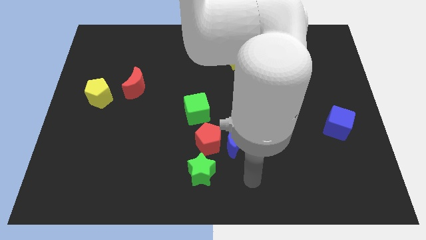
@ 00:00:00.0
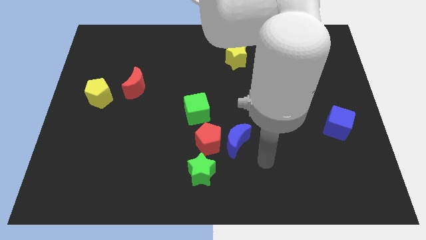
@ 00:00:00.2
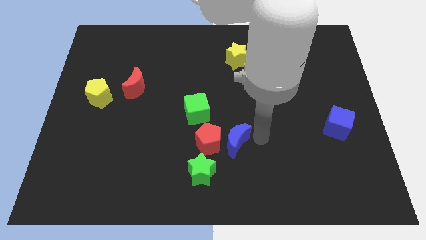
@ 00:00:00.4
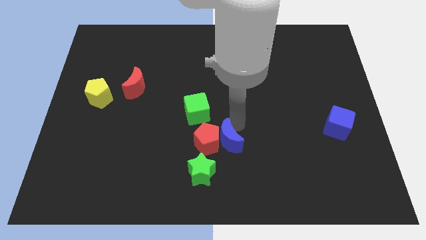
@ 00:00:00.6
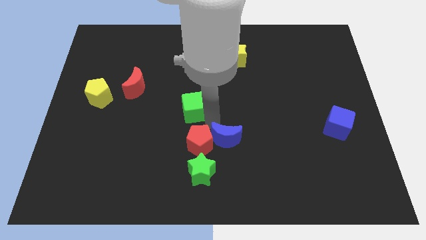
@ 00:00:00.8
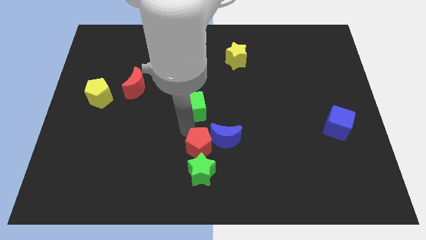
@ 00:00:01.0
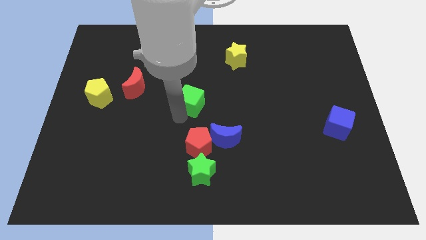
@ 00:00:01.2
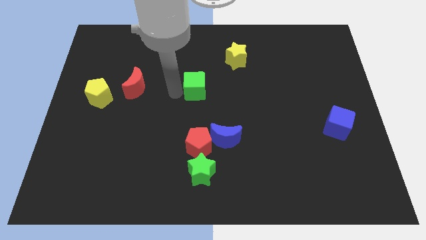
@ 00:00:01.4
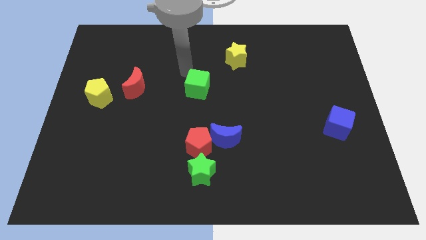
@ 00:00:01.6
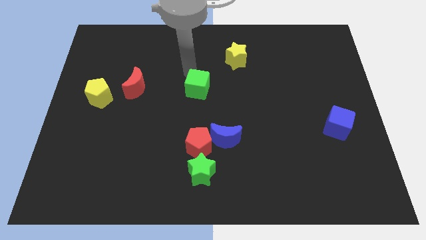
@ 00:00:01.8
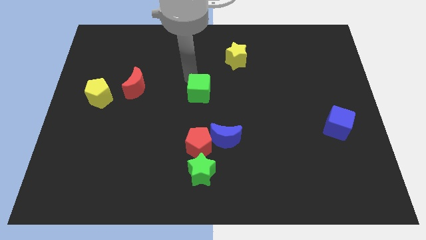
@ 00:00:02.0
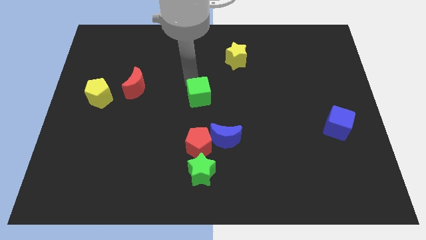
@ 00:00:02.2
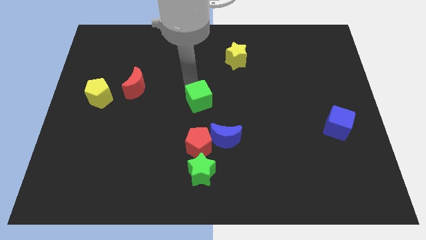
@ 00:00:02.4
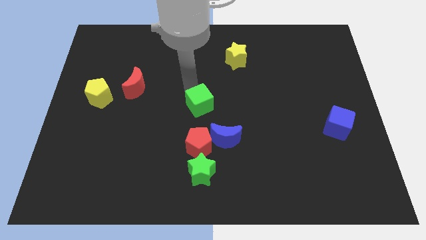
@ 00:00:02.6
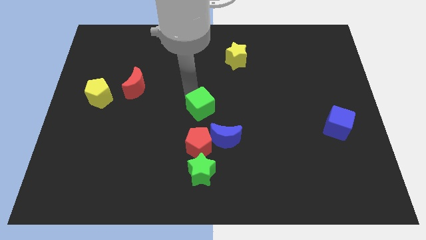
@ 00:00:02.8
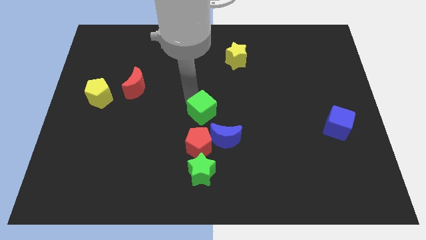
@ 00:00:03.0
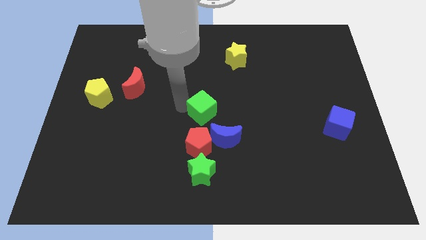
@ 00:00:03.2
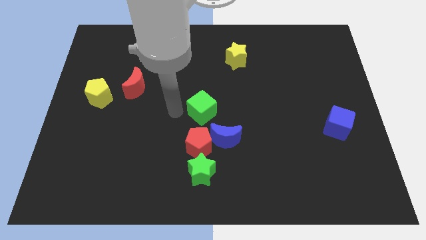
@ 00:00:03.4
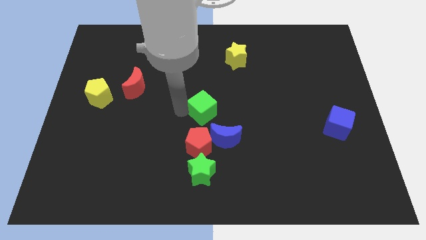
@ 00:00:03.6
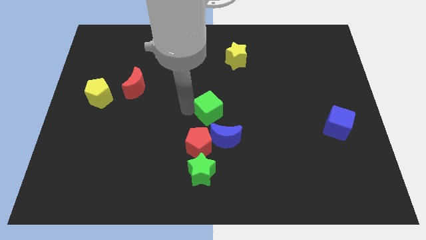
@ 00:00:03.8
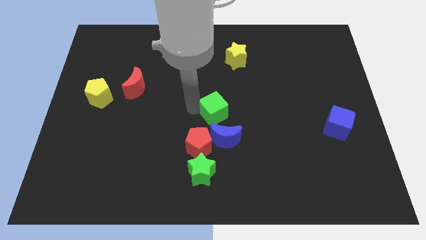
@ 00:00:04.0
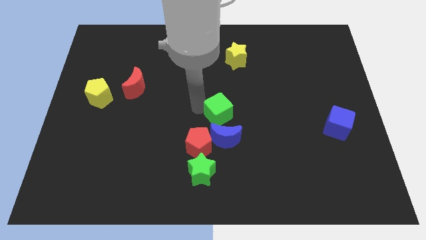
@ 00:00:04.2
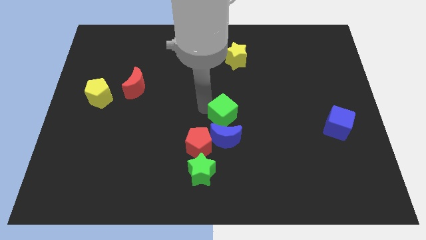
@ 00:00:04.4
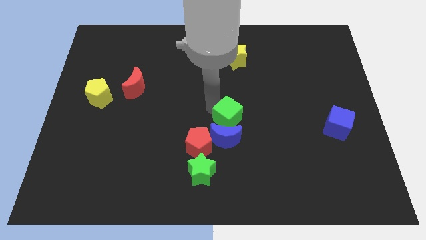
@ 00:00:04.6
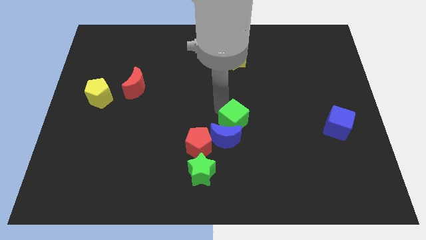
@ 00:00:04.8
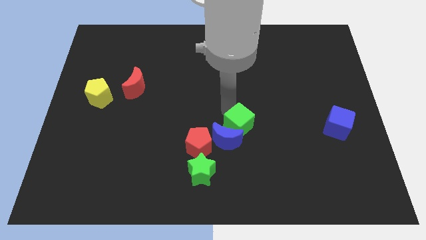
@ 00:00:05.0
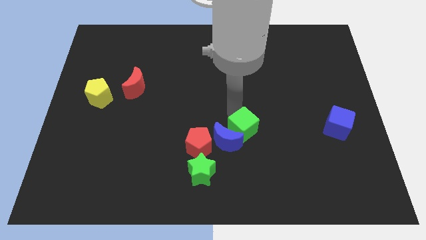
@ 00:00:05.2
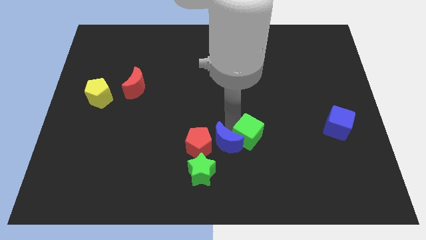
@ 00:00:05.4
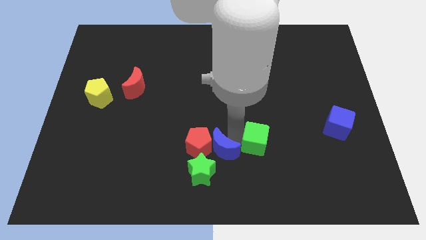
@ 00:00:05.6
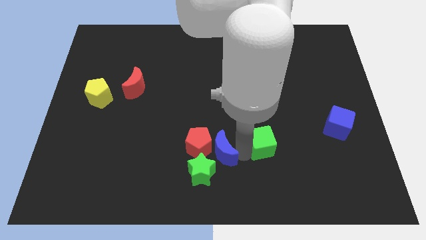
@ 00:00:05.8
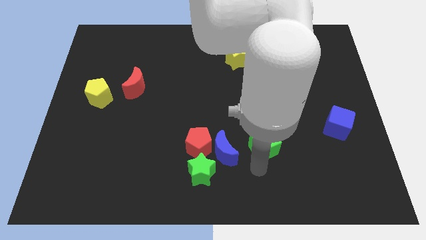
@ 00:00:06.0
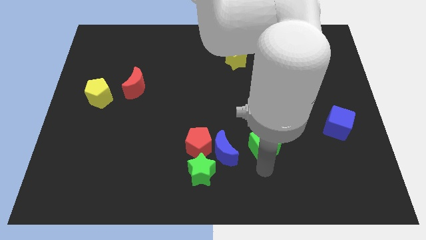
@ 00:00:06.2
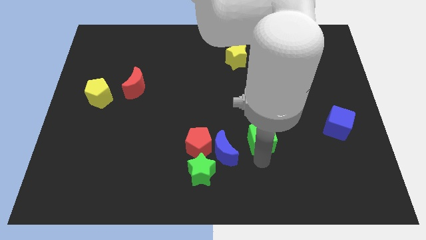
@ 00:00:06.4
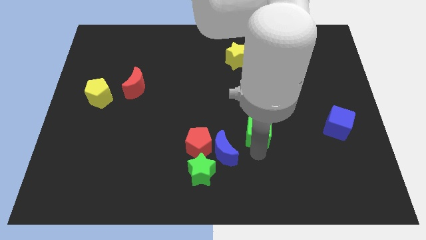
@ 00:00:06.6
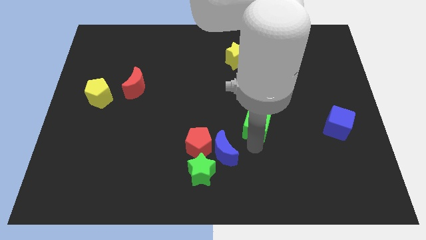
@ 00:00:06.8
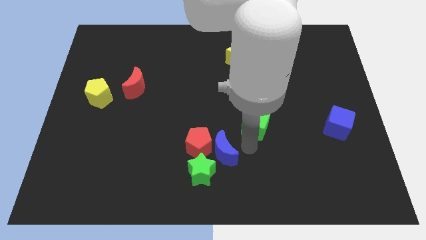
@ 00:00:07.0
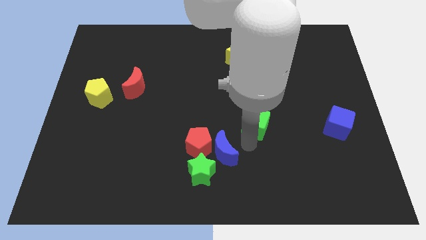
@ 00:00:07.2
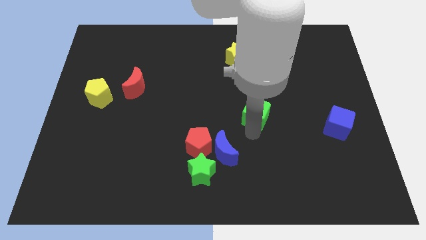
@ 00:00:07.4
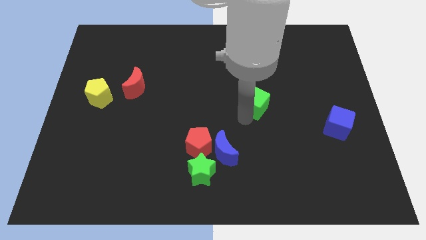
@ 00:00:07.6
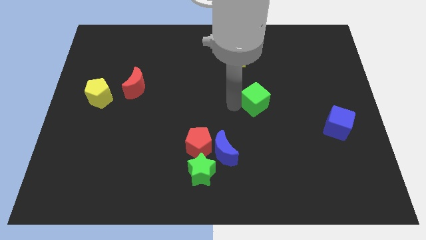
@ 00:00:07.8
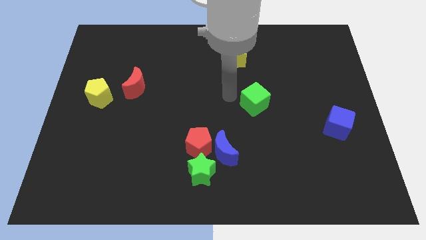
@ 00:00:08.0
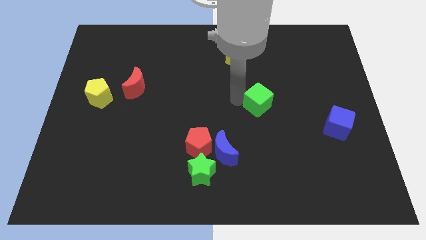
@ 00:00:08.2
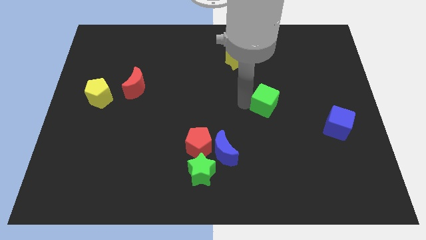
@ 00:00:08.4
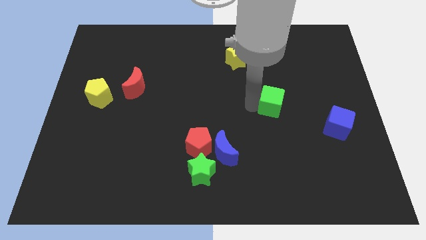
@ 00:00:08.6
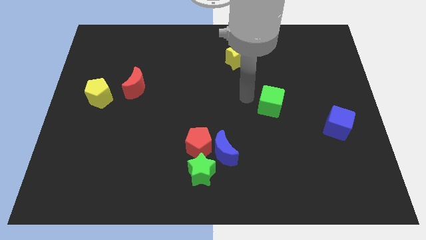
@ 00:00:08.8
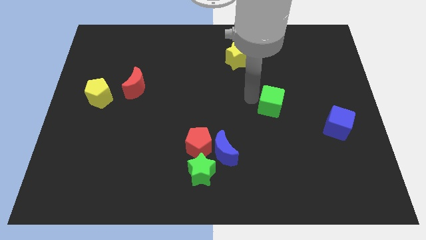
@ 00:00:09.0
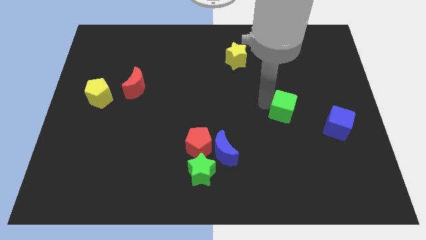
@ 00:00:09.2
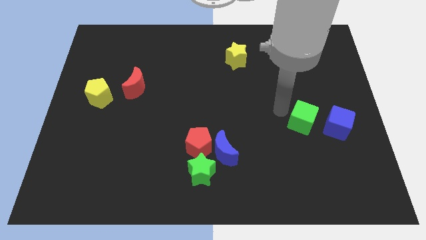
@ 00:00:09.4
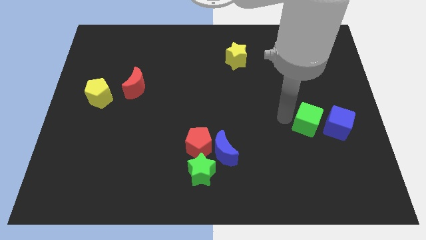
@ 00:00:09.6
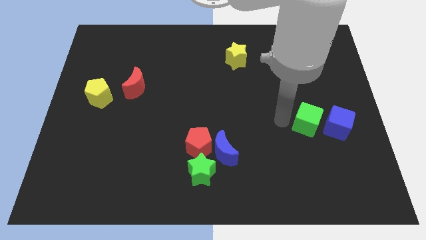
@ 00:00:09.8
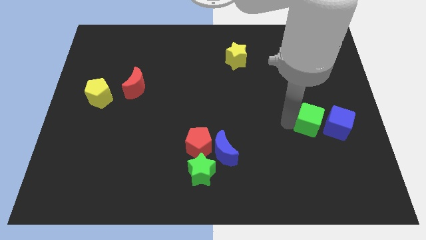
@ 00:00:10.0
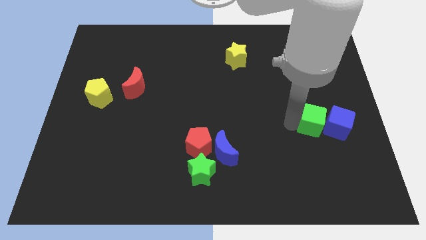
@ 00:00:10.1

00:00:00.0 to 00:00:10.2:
slide the green cube close to the blue cube

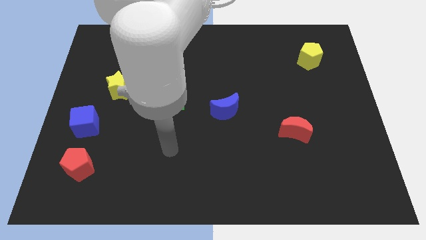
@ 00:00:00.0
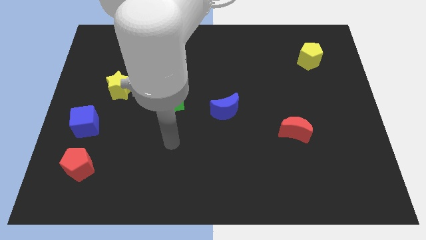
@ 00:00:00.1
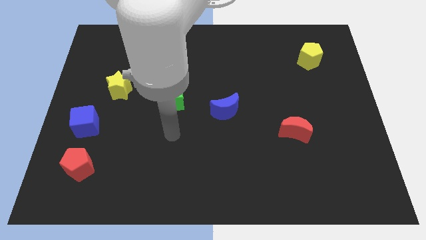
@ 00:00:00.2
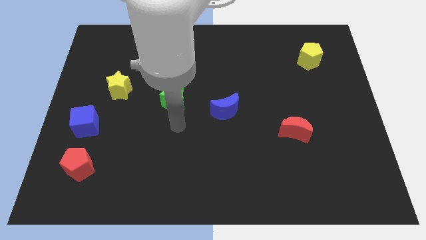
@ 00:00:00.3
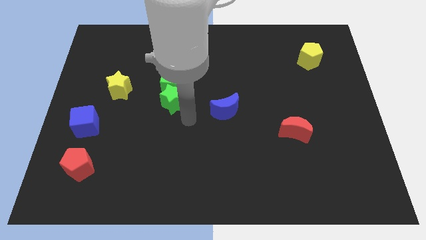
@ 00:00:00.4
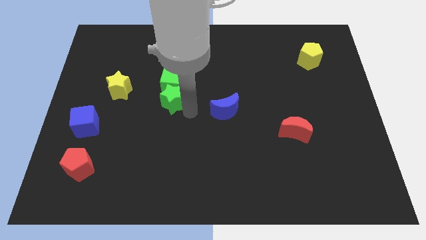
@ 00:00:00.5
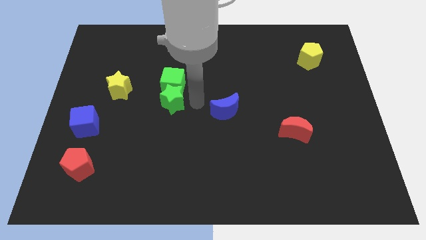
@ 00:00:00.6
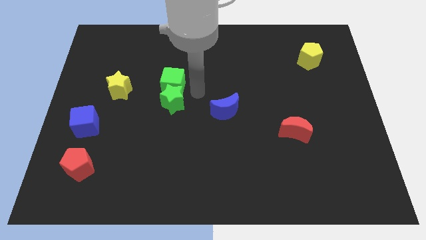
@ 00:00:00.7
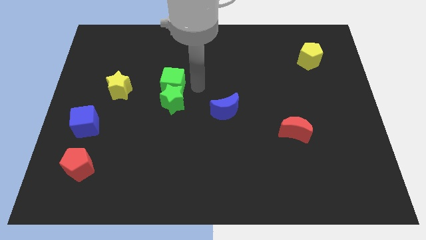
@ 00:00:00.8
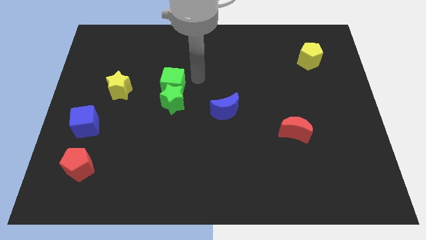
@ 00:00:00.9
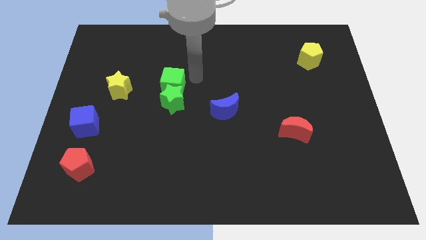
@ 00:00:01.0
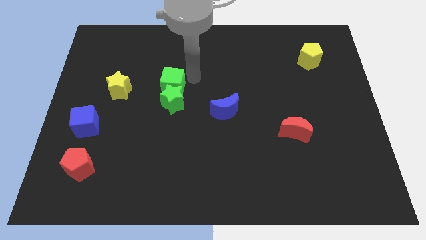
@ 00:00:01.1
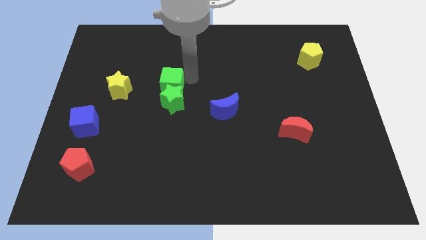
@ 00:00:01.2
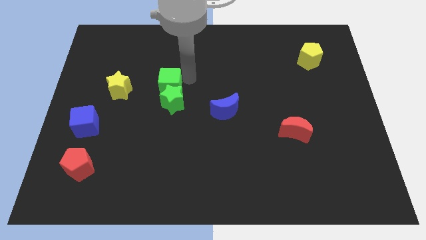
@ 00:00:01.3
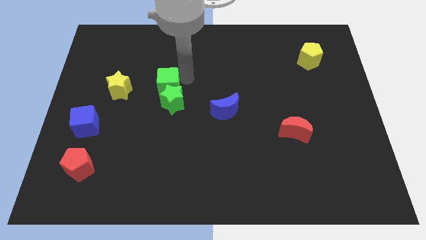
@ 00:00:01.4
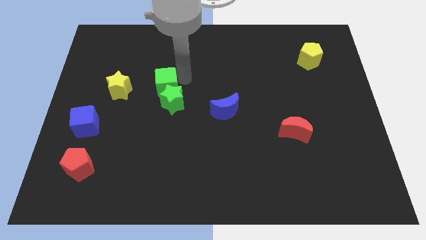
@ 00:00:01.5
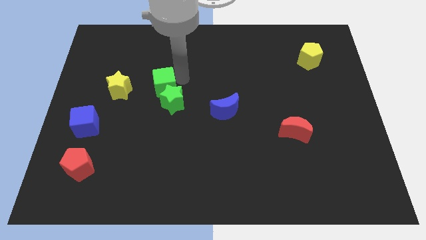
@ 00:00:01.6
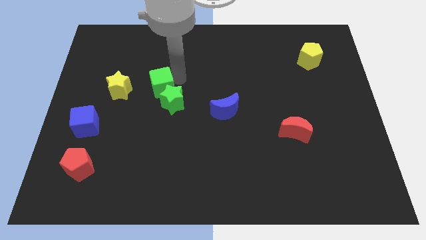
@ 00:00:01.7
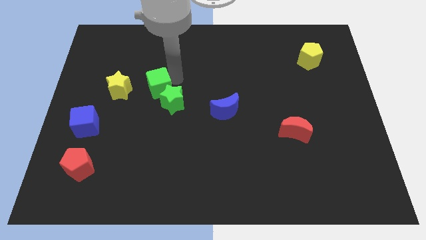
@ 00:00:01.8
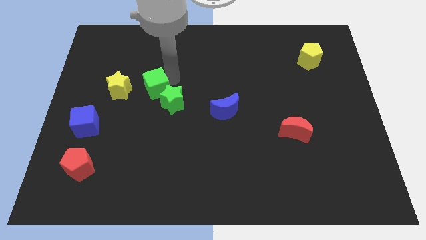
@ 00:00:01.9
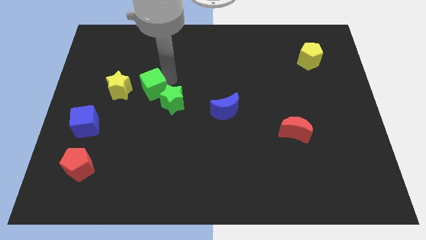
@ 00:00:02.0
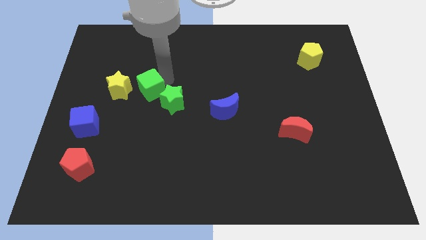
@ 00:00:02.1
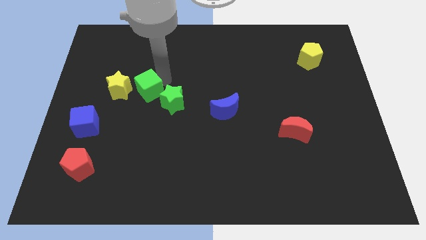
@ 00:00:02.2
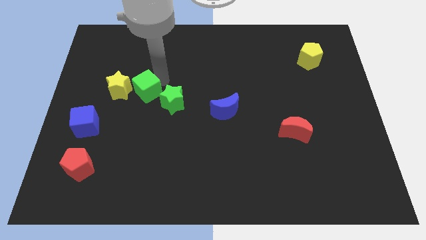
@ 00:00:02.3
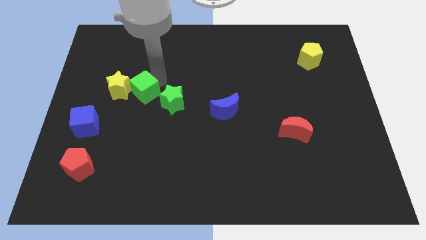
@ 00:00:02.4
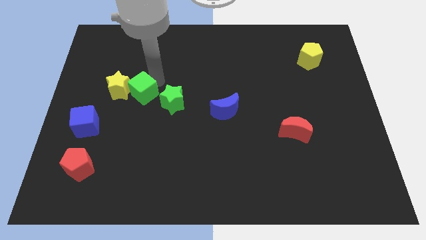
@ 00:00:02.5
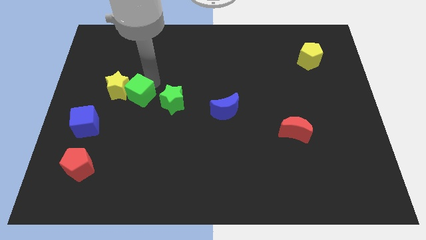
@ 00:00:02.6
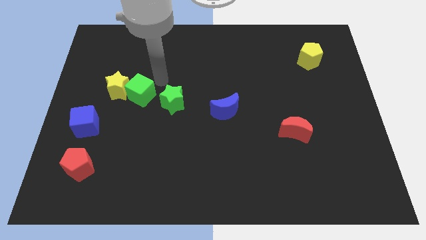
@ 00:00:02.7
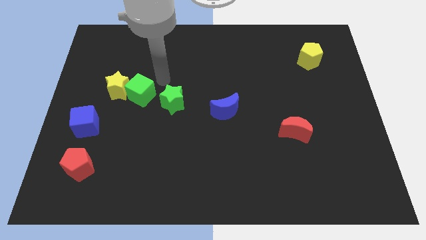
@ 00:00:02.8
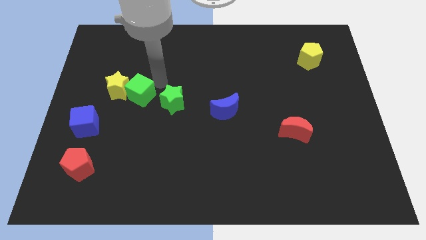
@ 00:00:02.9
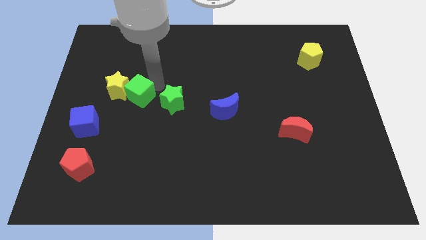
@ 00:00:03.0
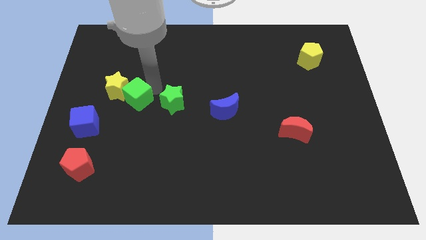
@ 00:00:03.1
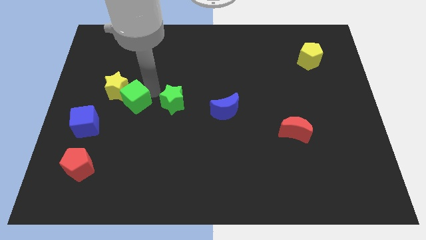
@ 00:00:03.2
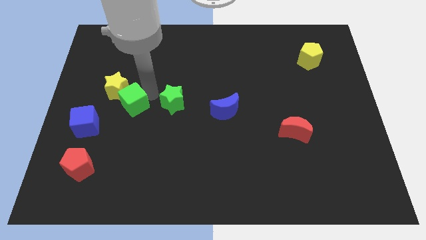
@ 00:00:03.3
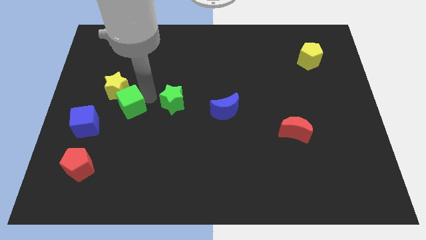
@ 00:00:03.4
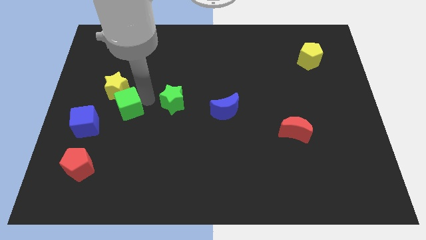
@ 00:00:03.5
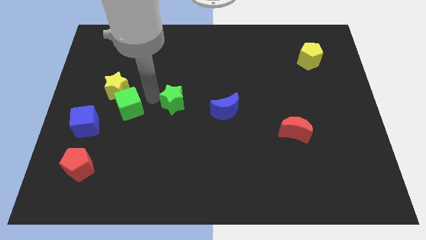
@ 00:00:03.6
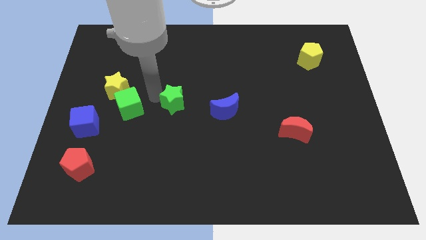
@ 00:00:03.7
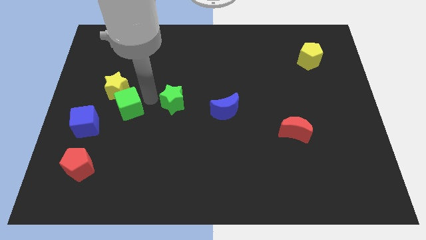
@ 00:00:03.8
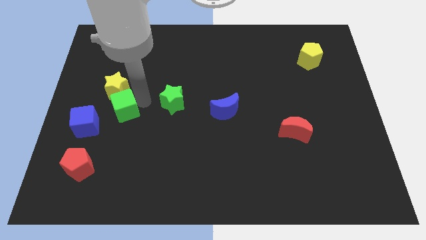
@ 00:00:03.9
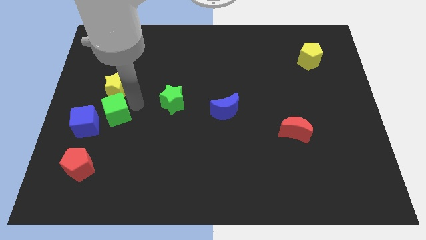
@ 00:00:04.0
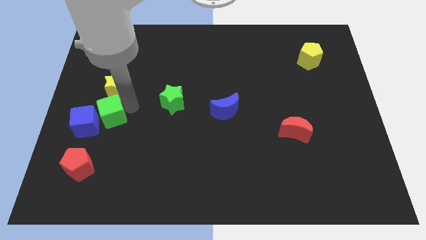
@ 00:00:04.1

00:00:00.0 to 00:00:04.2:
slide the green cube towards the blue cube
